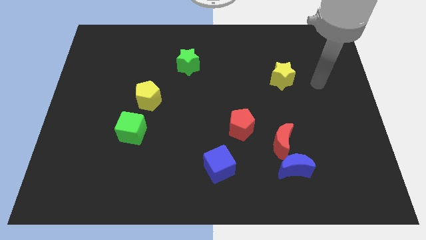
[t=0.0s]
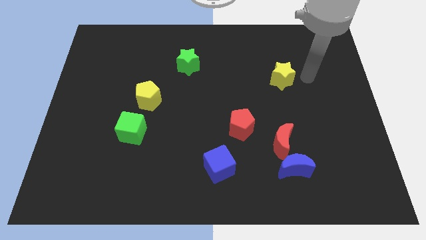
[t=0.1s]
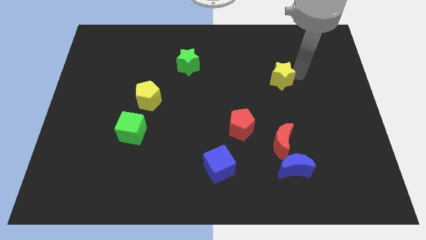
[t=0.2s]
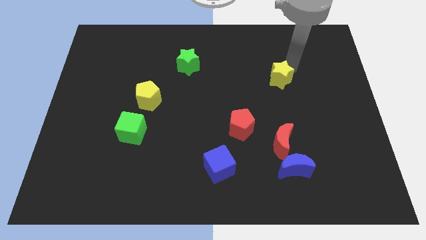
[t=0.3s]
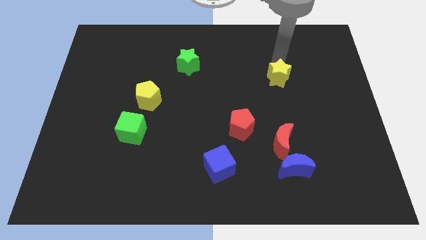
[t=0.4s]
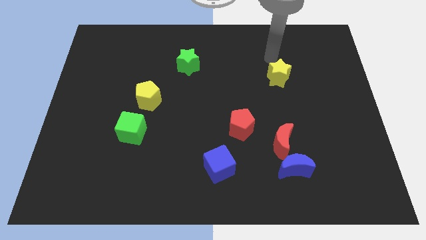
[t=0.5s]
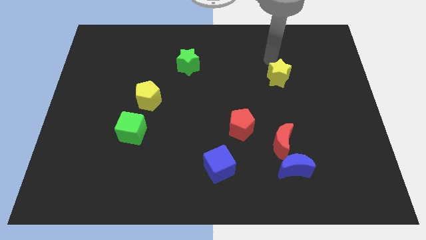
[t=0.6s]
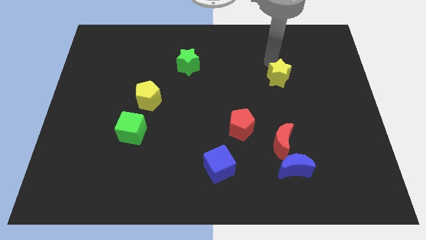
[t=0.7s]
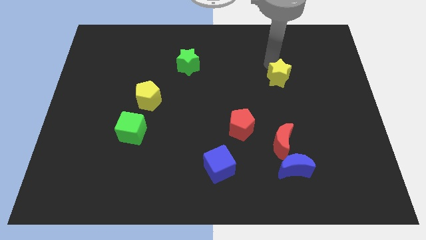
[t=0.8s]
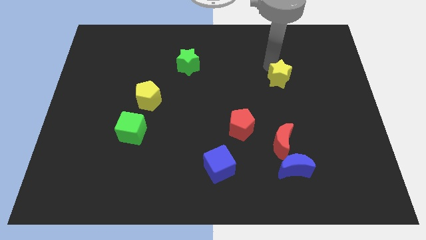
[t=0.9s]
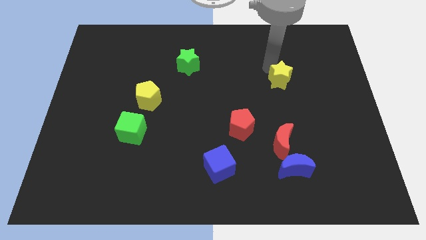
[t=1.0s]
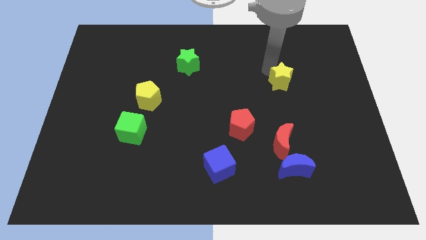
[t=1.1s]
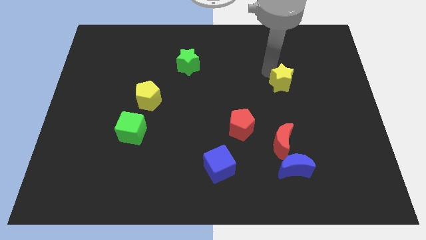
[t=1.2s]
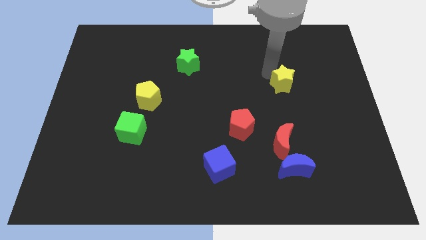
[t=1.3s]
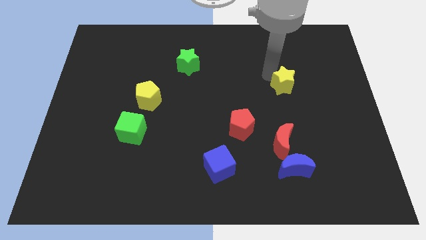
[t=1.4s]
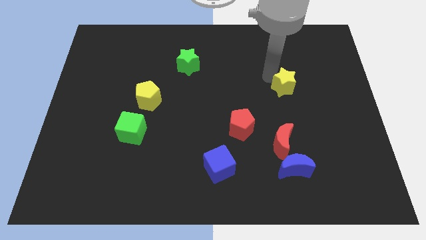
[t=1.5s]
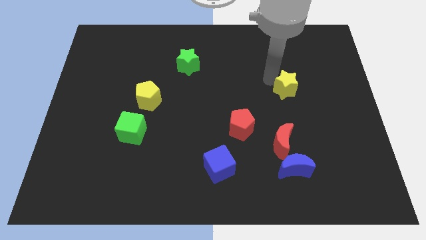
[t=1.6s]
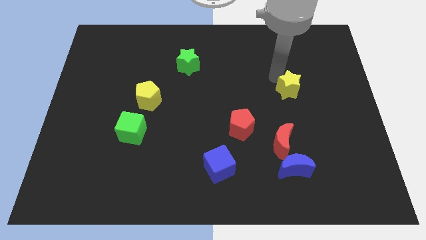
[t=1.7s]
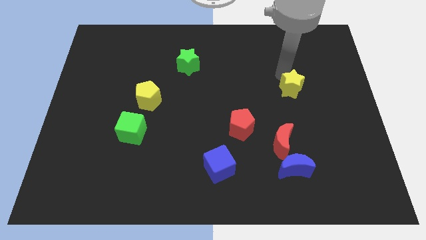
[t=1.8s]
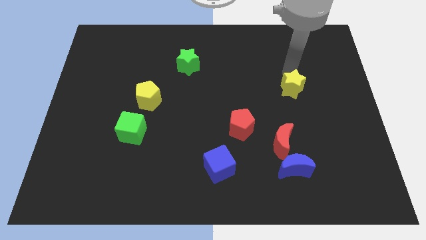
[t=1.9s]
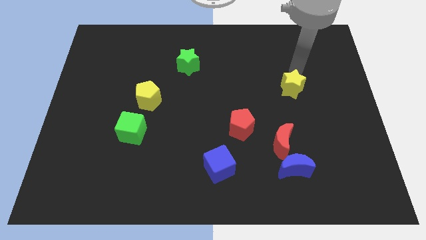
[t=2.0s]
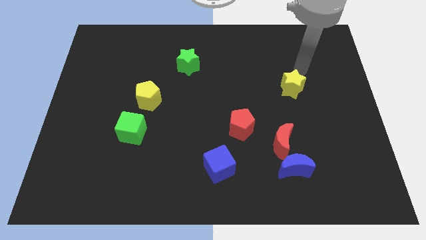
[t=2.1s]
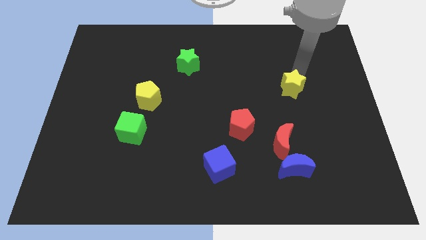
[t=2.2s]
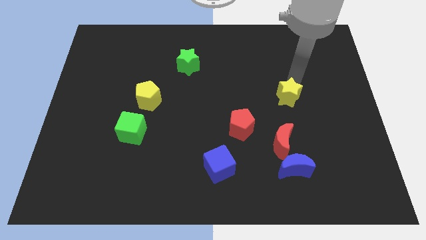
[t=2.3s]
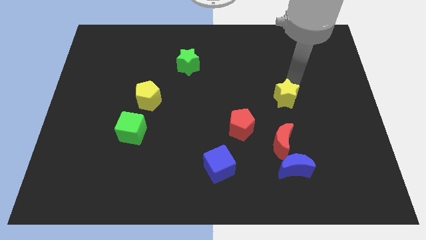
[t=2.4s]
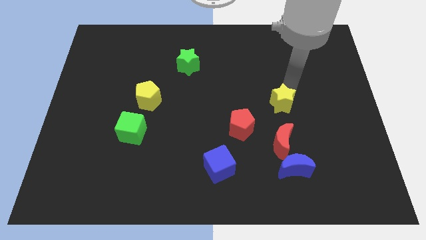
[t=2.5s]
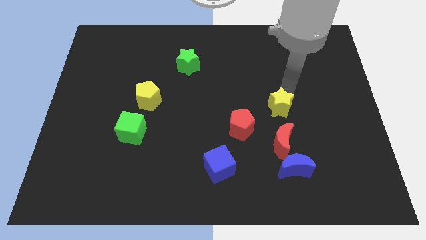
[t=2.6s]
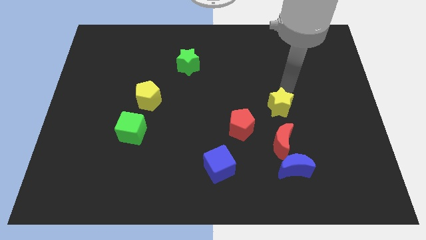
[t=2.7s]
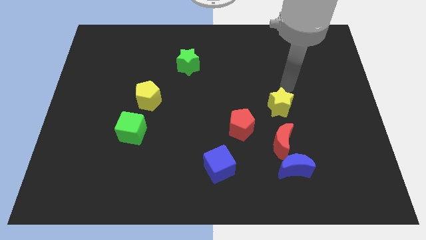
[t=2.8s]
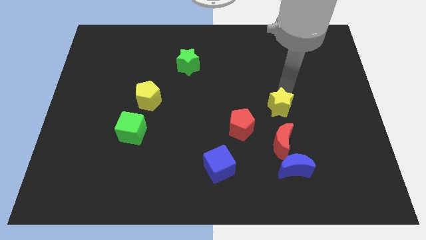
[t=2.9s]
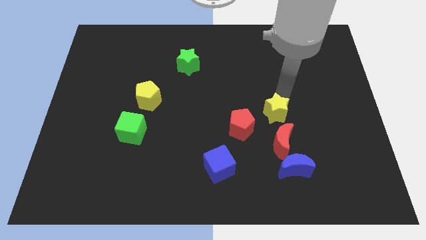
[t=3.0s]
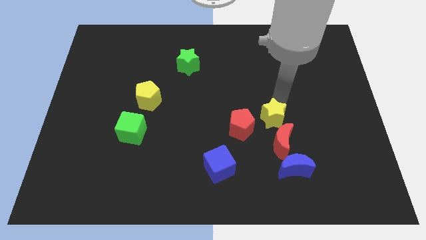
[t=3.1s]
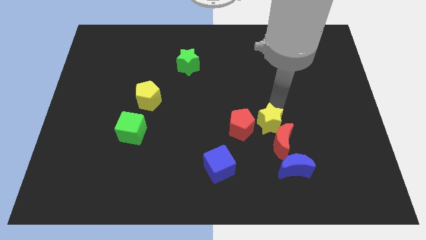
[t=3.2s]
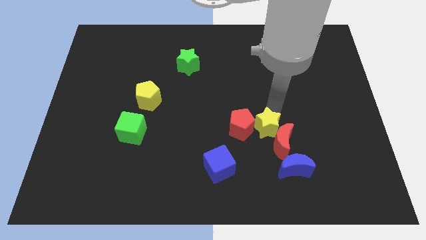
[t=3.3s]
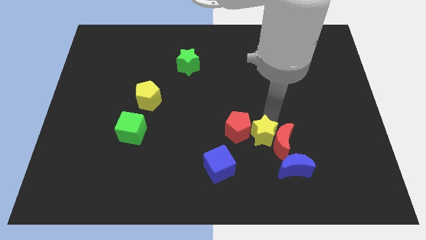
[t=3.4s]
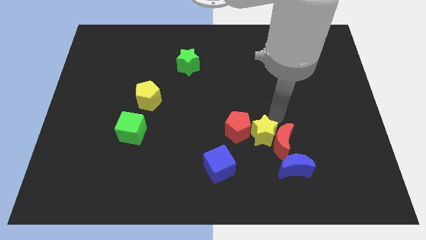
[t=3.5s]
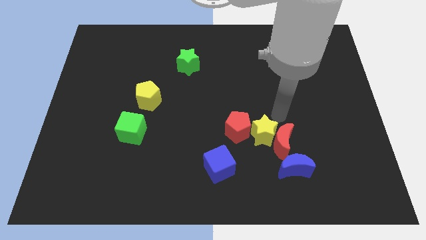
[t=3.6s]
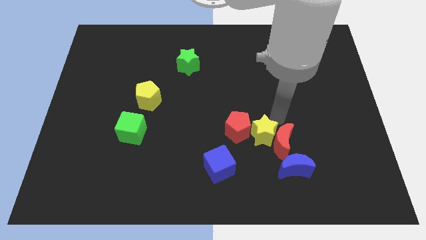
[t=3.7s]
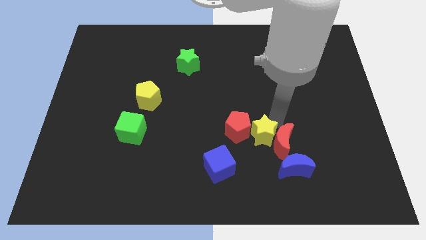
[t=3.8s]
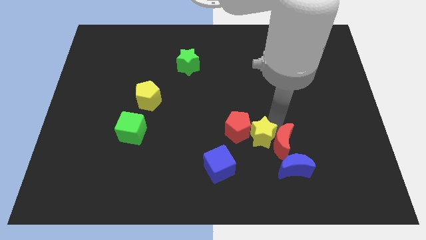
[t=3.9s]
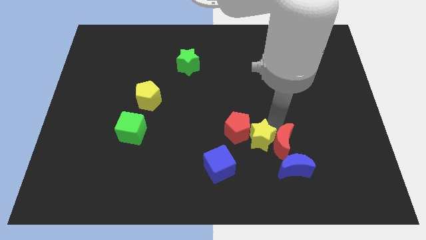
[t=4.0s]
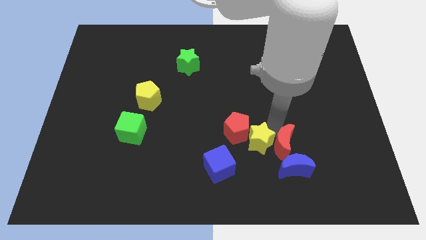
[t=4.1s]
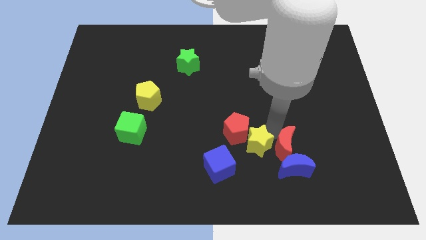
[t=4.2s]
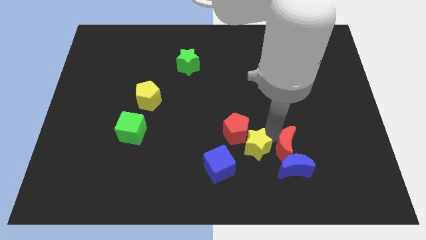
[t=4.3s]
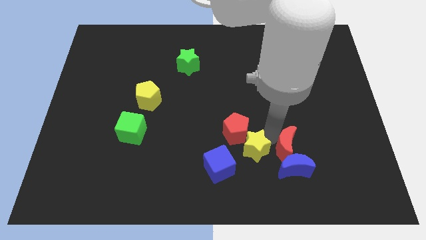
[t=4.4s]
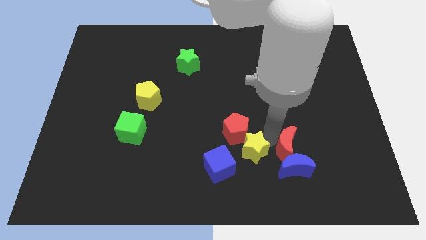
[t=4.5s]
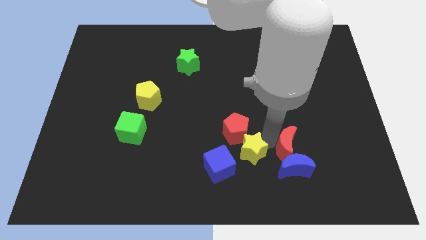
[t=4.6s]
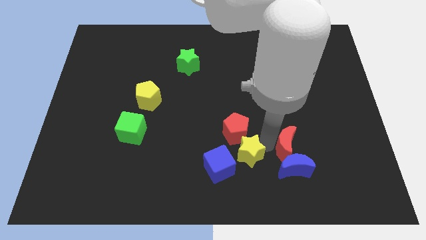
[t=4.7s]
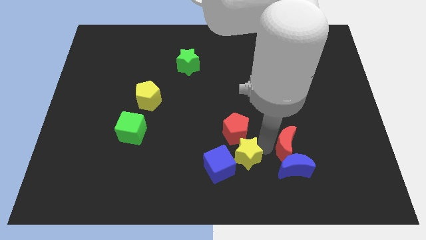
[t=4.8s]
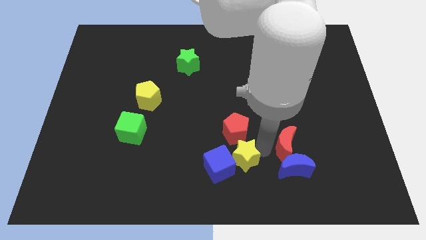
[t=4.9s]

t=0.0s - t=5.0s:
put the yellow star close to the blue cube

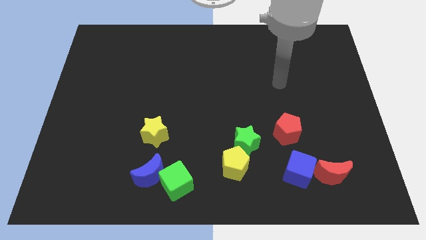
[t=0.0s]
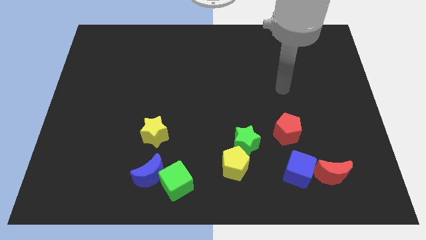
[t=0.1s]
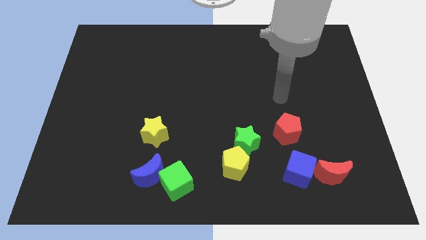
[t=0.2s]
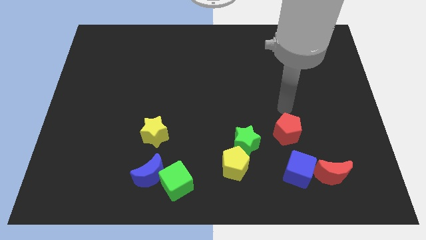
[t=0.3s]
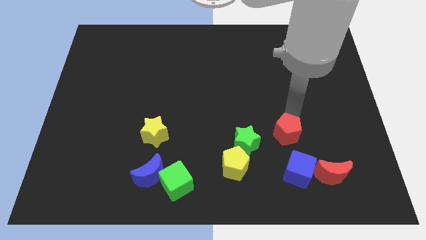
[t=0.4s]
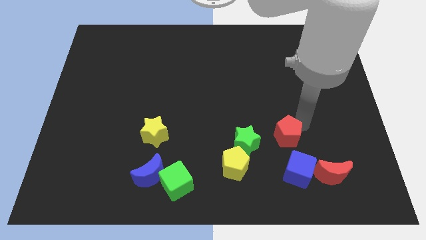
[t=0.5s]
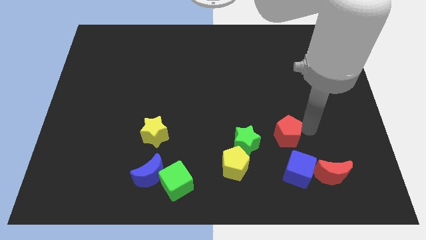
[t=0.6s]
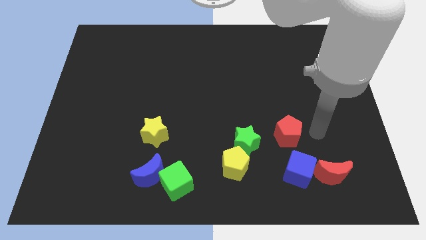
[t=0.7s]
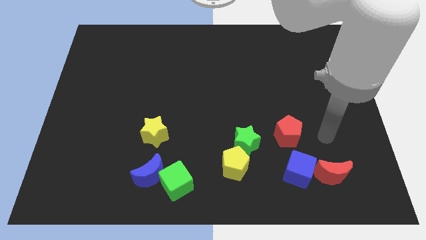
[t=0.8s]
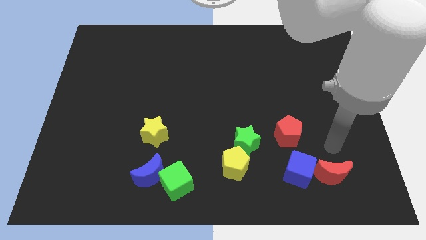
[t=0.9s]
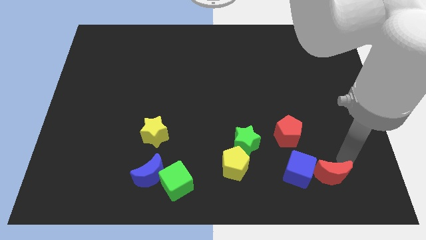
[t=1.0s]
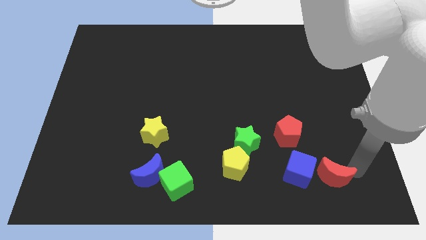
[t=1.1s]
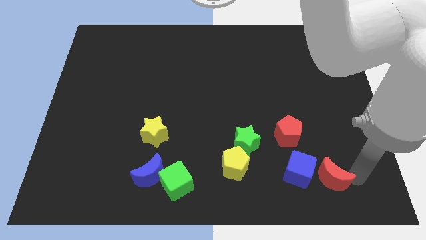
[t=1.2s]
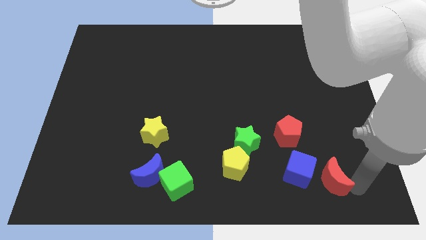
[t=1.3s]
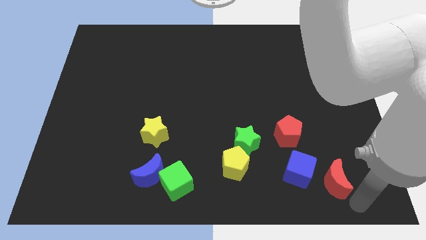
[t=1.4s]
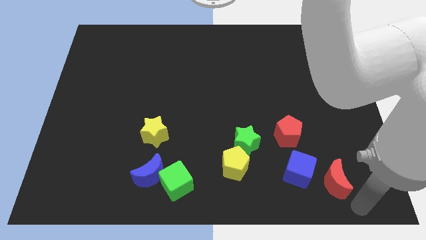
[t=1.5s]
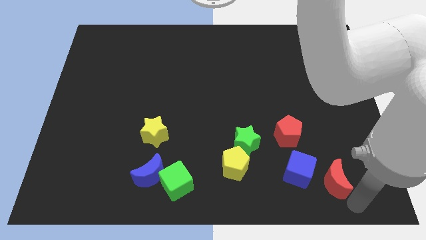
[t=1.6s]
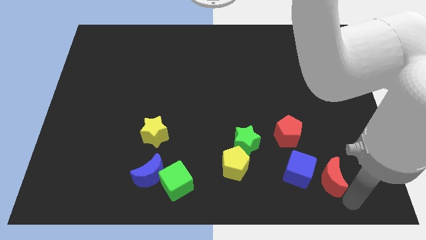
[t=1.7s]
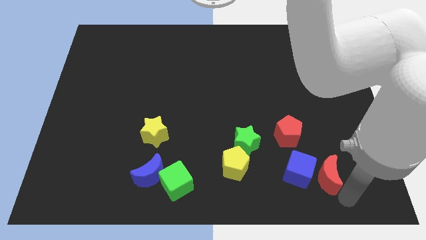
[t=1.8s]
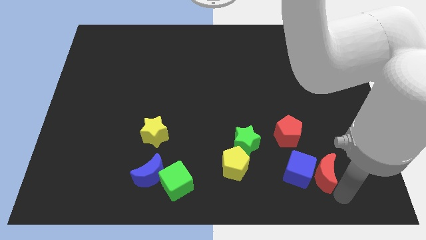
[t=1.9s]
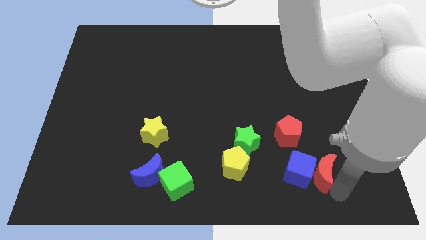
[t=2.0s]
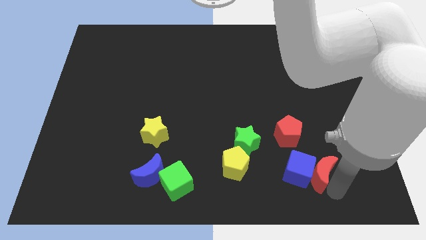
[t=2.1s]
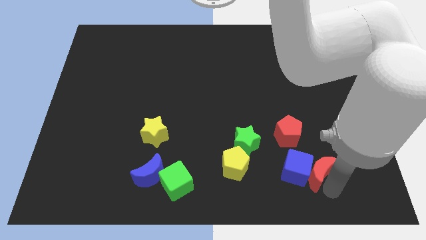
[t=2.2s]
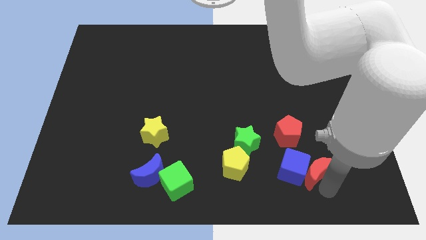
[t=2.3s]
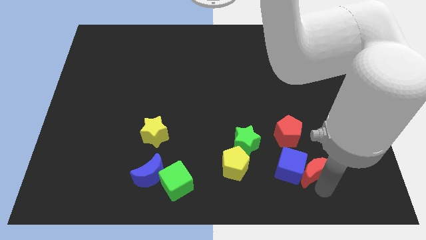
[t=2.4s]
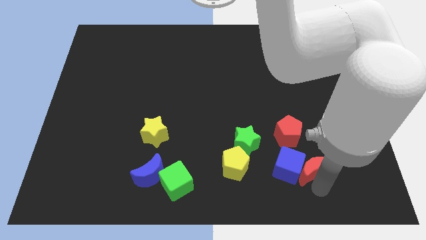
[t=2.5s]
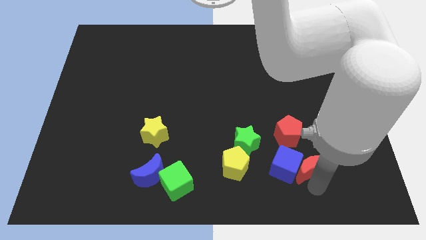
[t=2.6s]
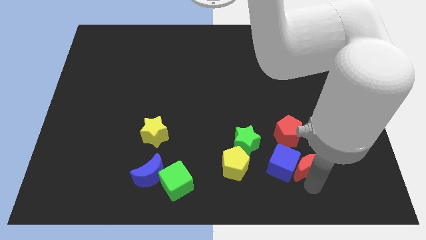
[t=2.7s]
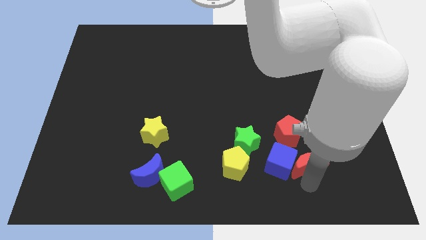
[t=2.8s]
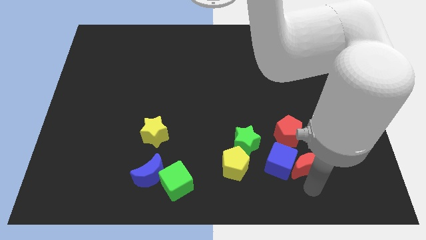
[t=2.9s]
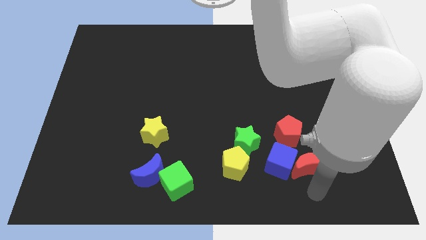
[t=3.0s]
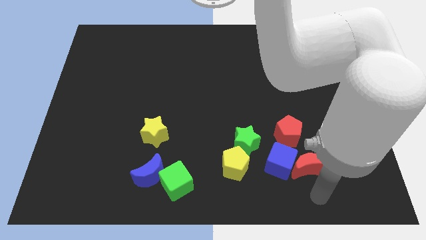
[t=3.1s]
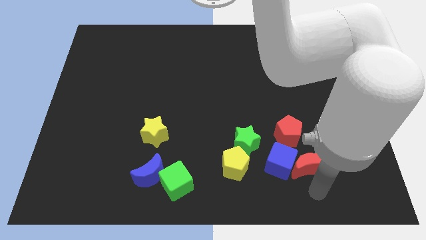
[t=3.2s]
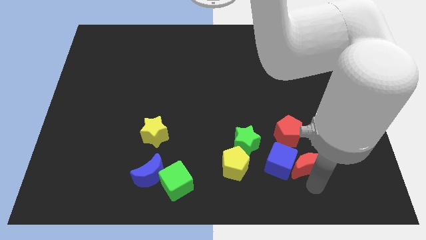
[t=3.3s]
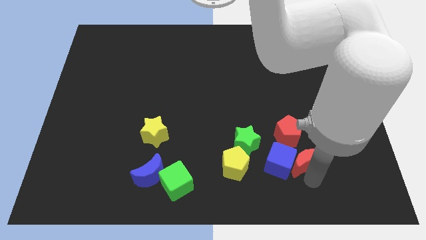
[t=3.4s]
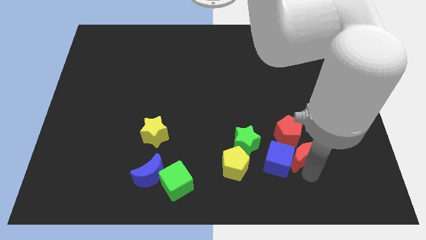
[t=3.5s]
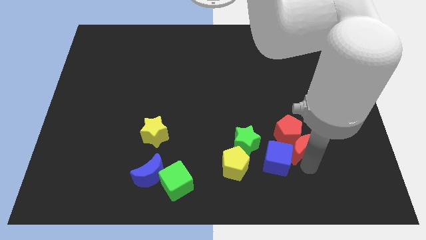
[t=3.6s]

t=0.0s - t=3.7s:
push the red moon next to the red pentagon
